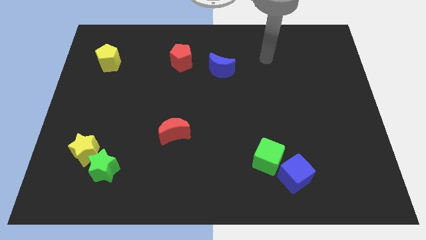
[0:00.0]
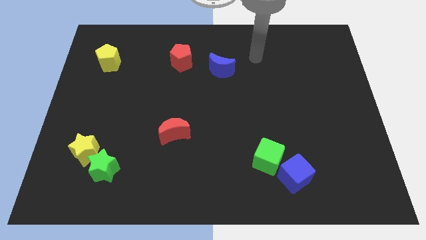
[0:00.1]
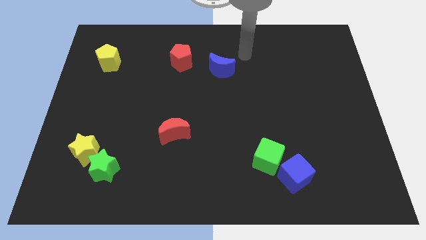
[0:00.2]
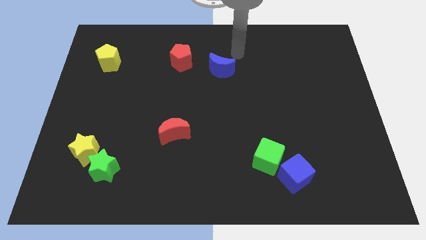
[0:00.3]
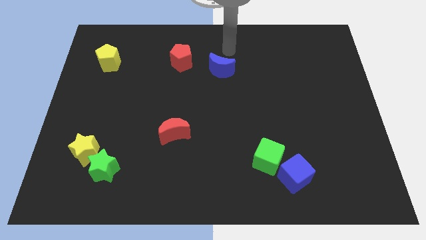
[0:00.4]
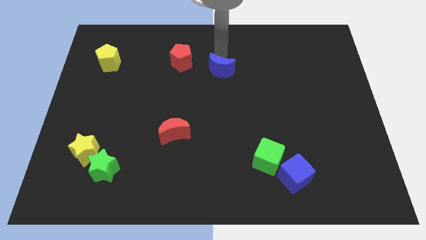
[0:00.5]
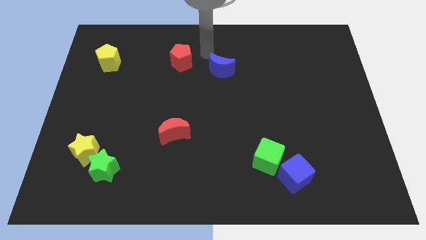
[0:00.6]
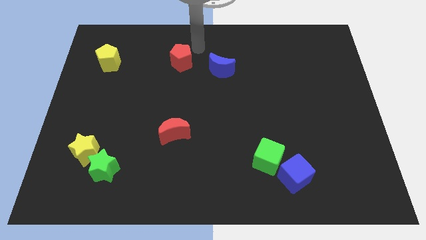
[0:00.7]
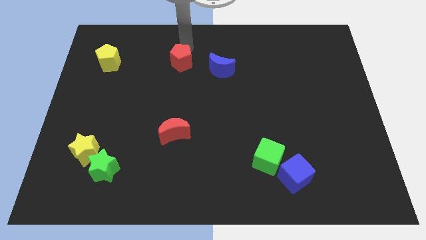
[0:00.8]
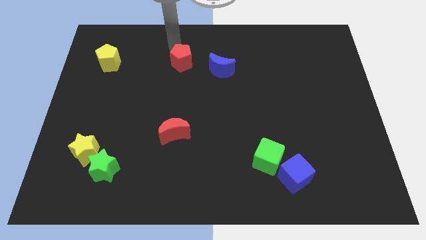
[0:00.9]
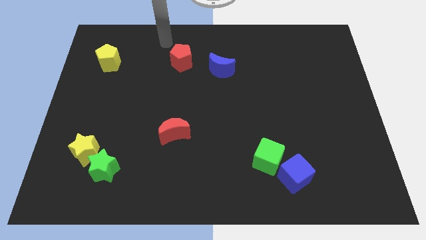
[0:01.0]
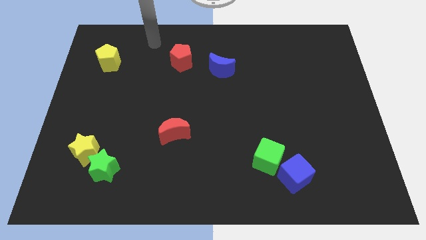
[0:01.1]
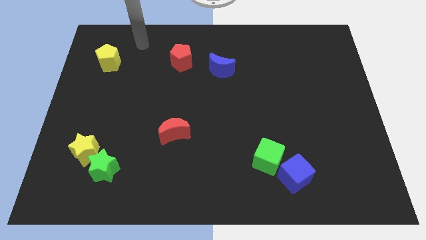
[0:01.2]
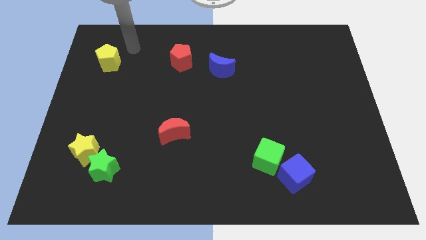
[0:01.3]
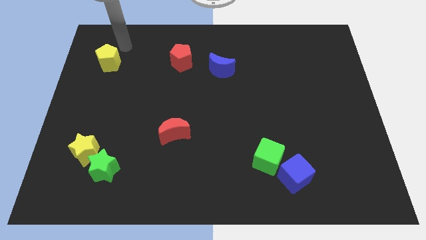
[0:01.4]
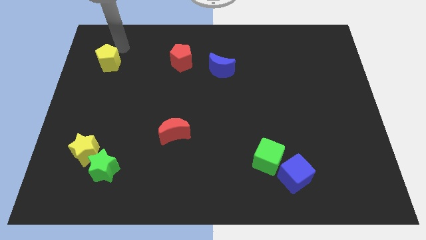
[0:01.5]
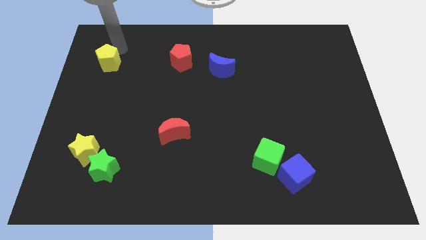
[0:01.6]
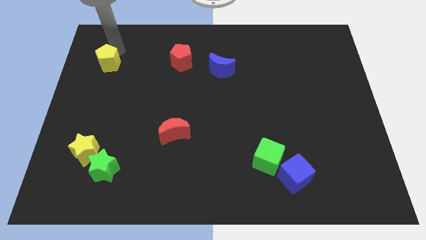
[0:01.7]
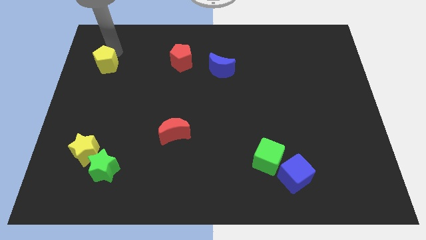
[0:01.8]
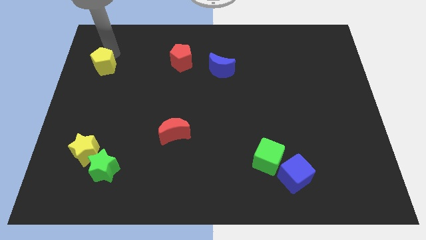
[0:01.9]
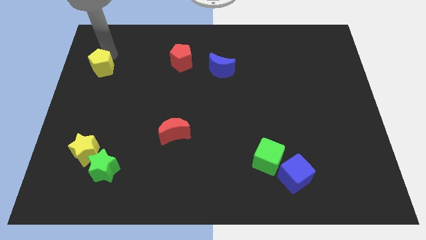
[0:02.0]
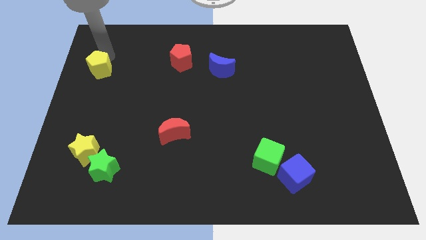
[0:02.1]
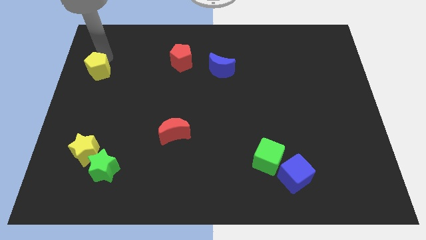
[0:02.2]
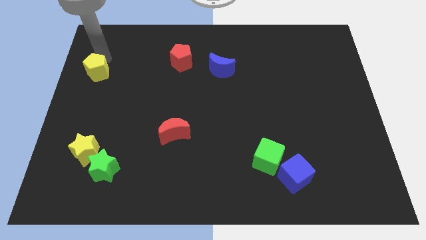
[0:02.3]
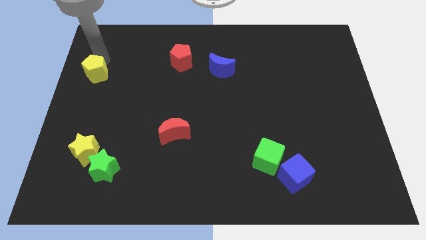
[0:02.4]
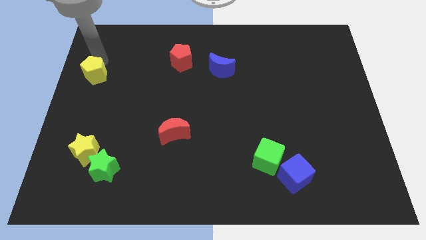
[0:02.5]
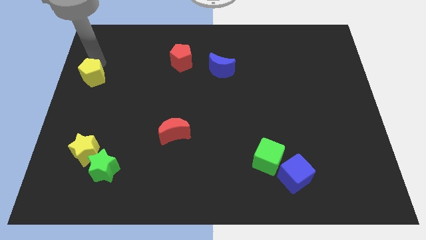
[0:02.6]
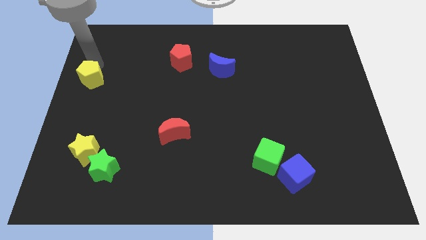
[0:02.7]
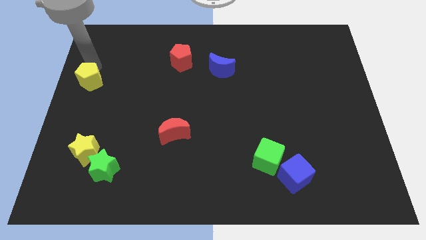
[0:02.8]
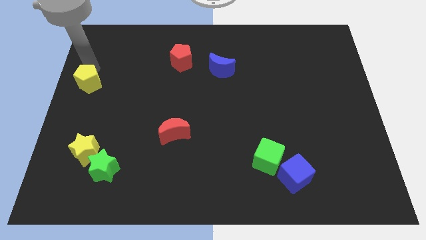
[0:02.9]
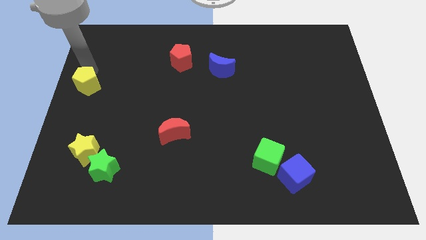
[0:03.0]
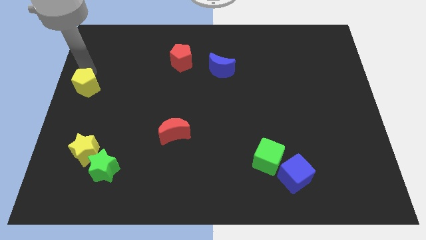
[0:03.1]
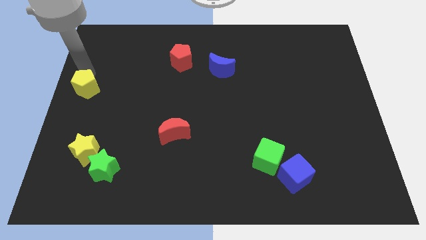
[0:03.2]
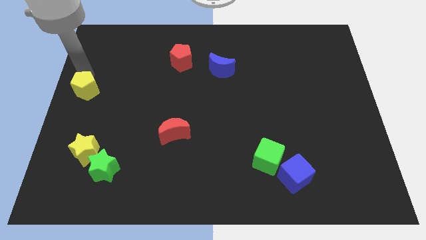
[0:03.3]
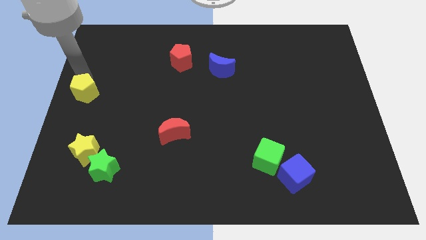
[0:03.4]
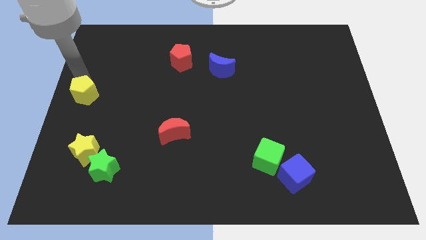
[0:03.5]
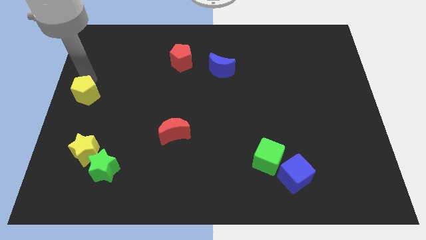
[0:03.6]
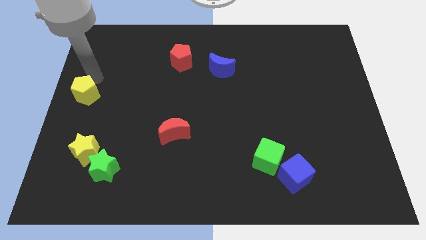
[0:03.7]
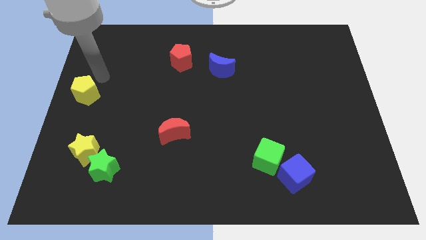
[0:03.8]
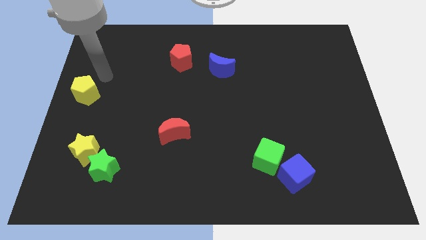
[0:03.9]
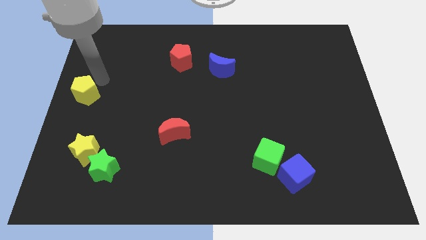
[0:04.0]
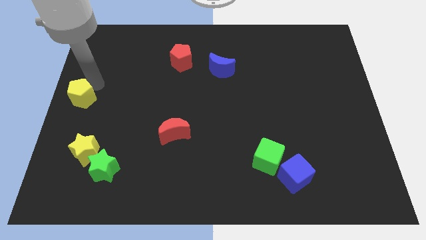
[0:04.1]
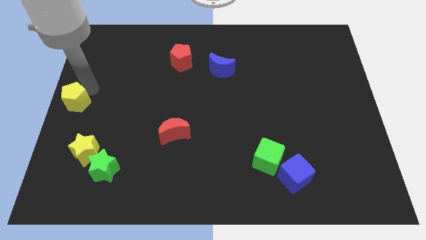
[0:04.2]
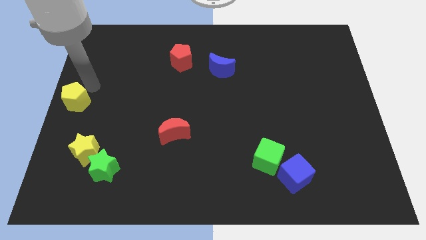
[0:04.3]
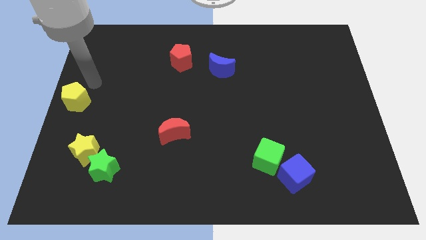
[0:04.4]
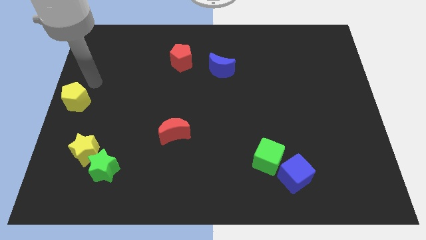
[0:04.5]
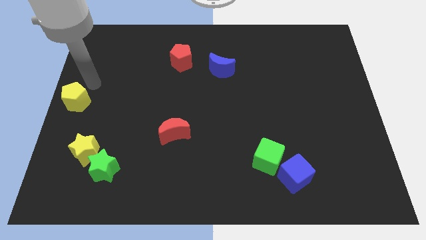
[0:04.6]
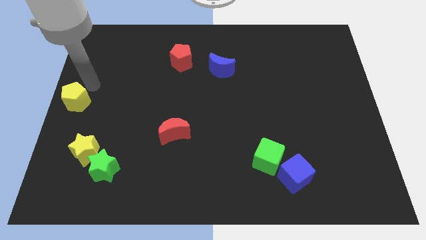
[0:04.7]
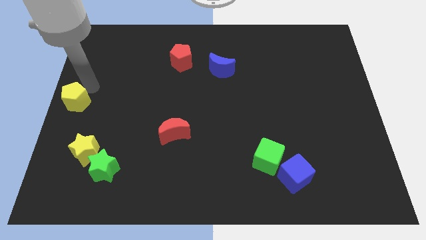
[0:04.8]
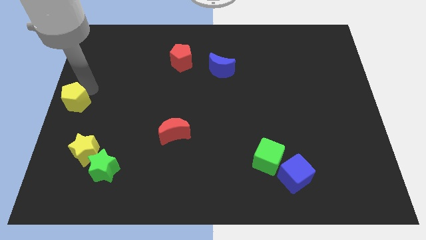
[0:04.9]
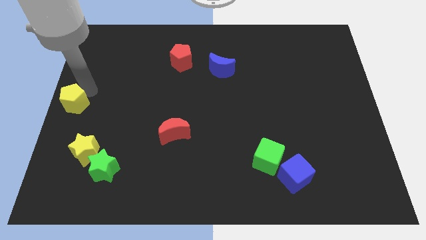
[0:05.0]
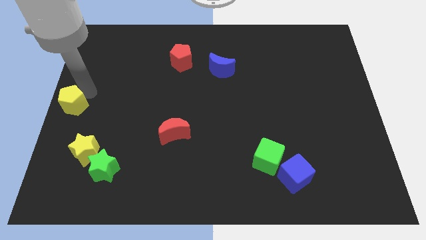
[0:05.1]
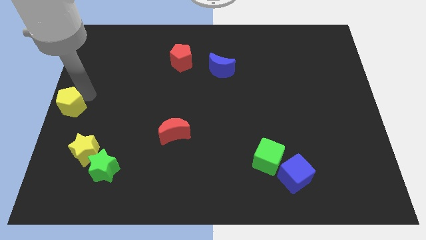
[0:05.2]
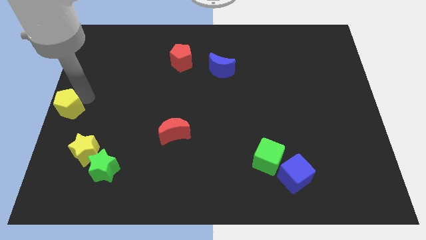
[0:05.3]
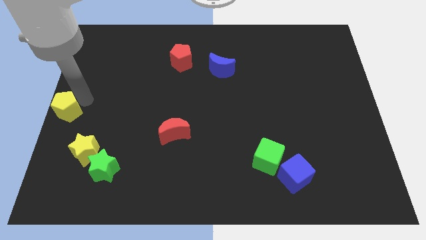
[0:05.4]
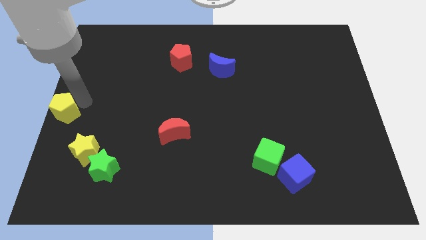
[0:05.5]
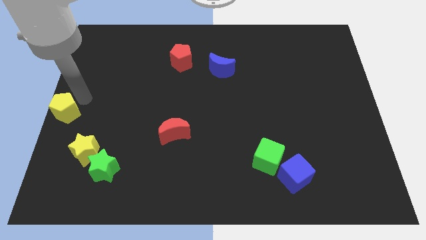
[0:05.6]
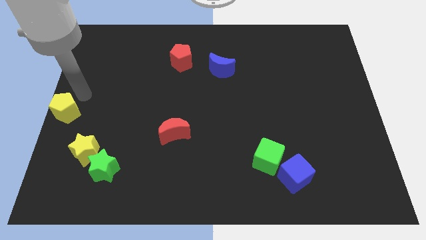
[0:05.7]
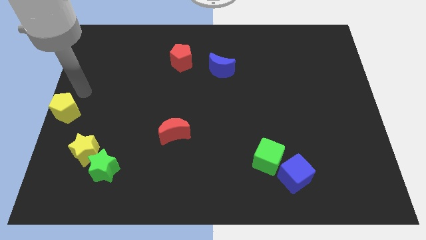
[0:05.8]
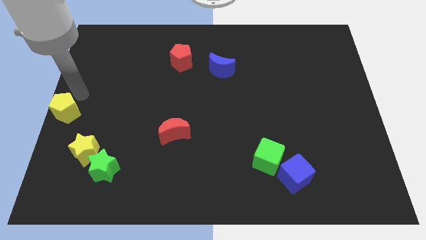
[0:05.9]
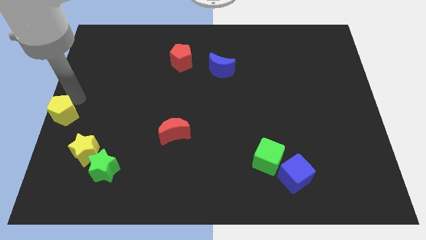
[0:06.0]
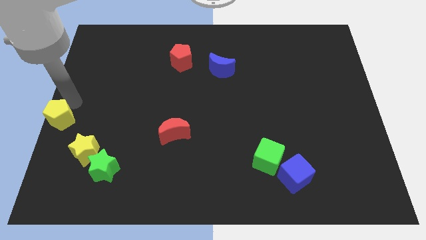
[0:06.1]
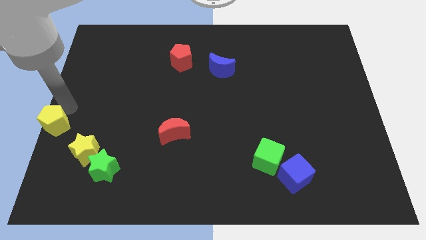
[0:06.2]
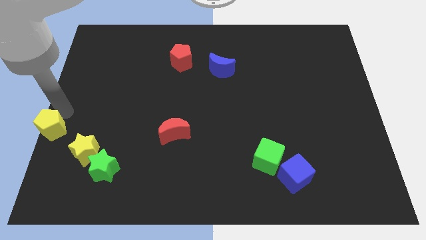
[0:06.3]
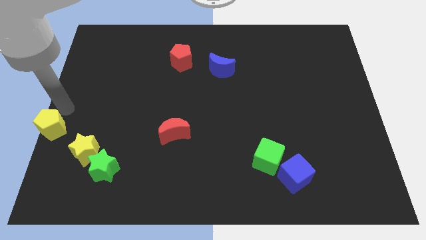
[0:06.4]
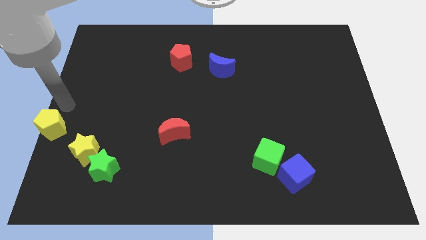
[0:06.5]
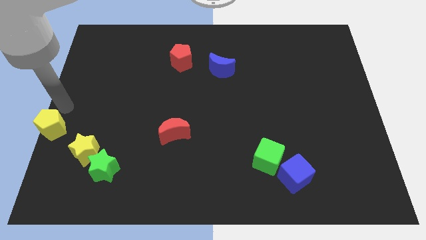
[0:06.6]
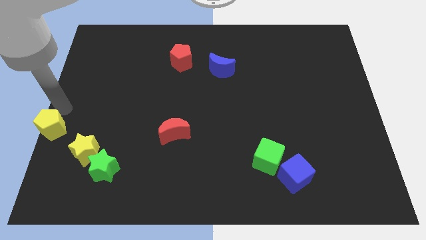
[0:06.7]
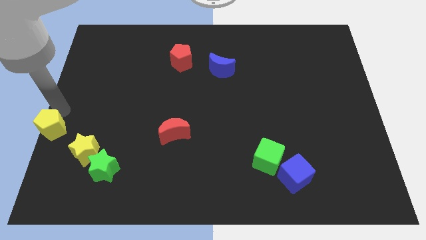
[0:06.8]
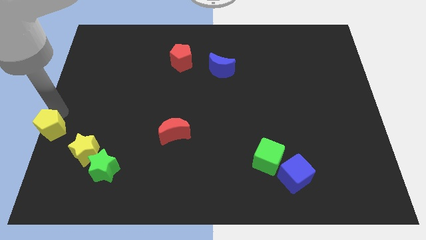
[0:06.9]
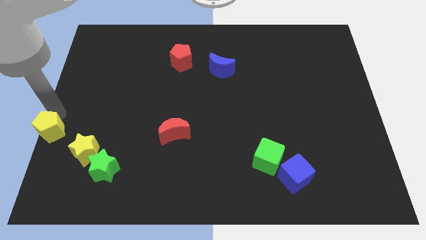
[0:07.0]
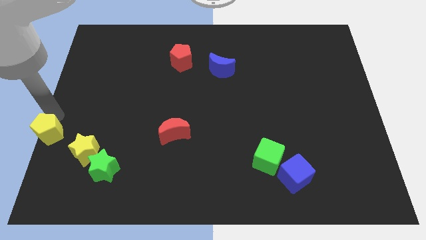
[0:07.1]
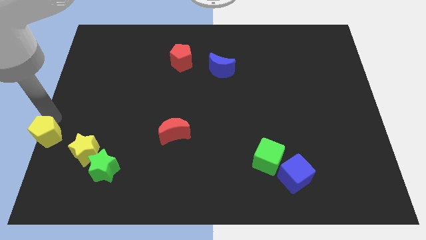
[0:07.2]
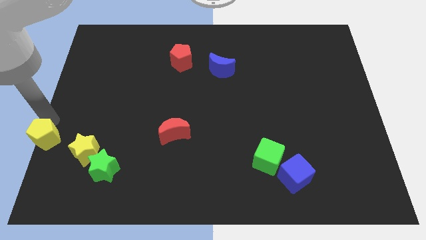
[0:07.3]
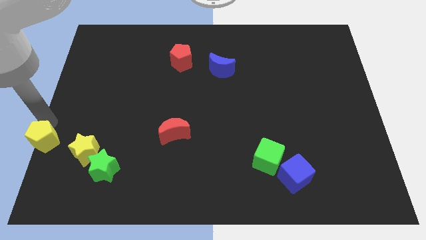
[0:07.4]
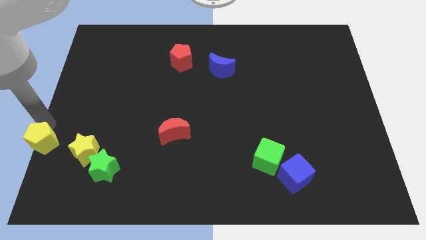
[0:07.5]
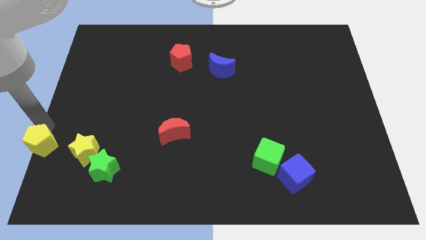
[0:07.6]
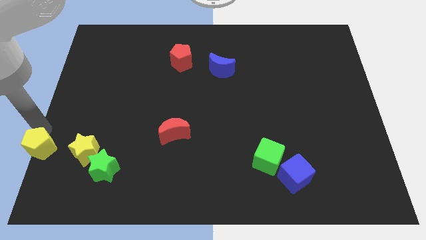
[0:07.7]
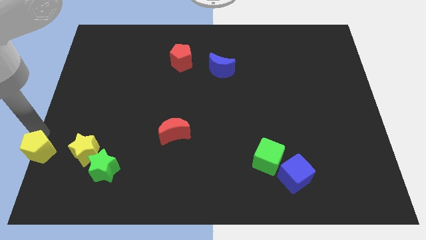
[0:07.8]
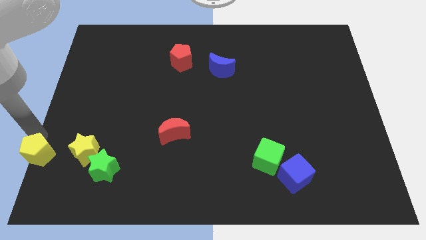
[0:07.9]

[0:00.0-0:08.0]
slide the yellow pentagon to the bottom left
